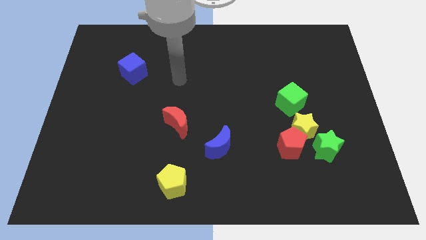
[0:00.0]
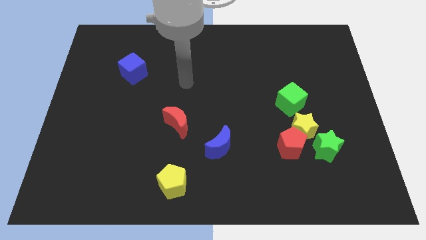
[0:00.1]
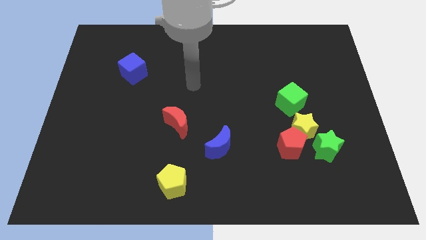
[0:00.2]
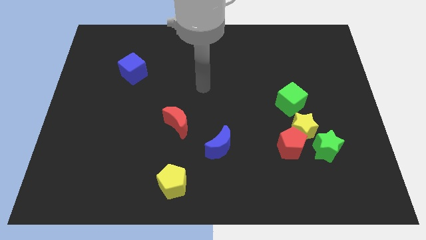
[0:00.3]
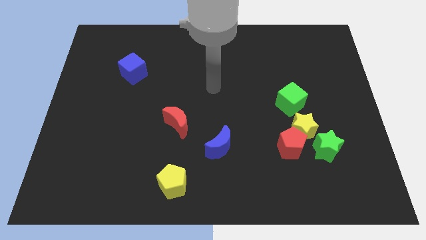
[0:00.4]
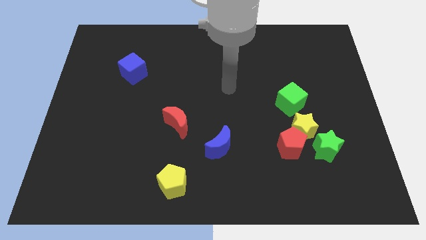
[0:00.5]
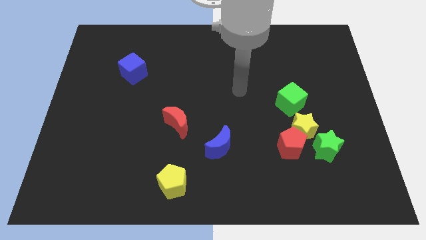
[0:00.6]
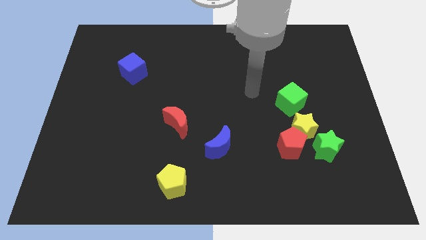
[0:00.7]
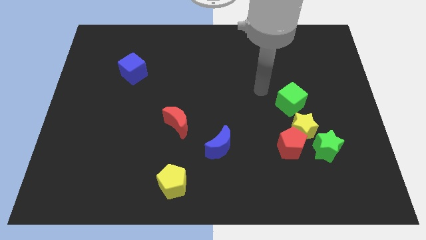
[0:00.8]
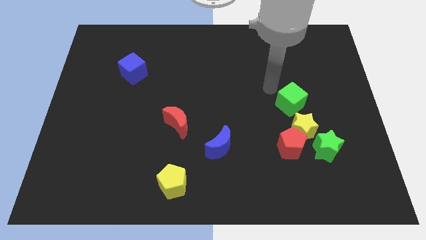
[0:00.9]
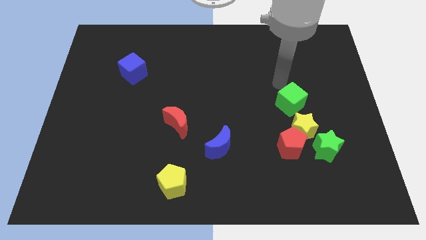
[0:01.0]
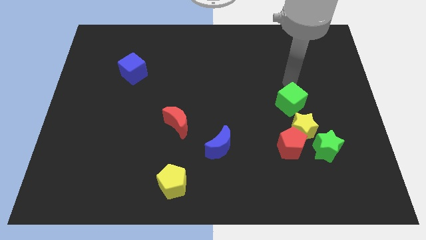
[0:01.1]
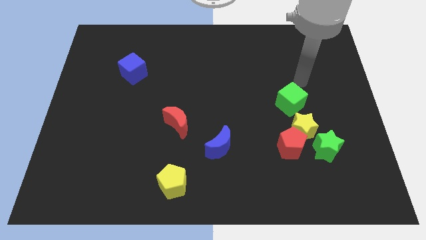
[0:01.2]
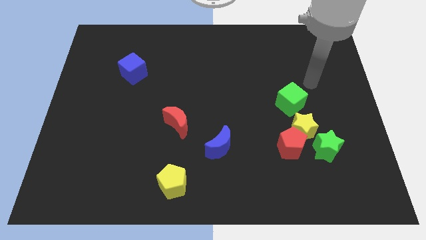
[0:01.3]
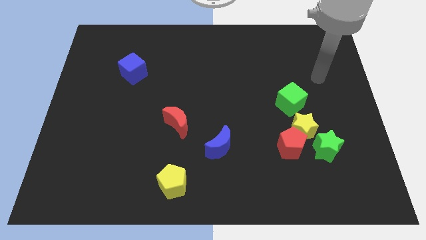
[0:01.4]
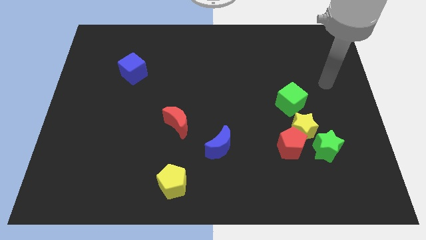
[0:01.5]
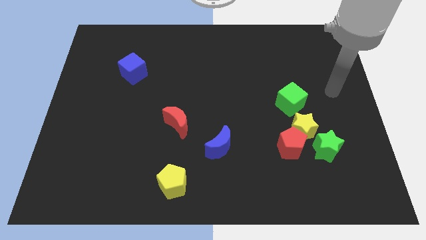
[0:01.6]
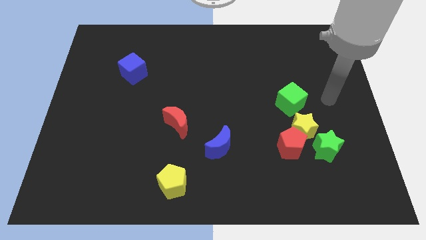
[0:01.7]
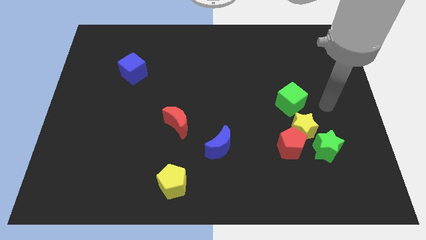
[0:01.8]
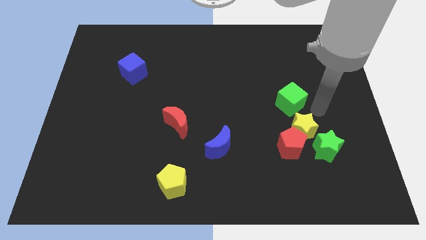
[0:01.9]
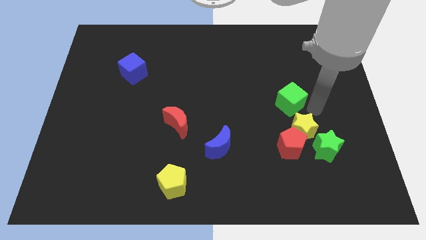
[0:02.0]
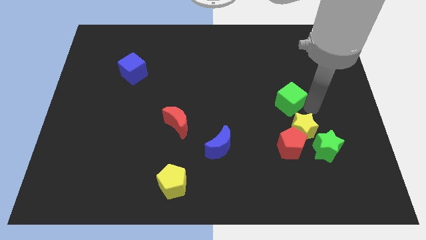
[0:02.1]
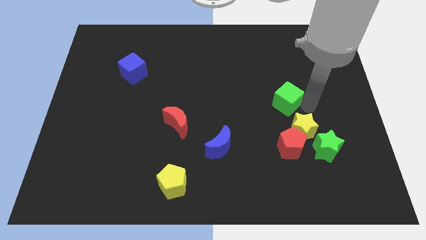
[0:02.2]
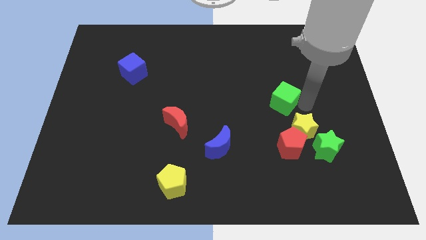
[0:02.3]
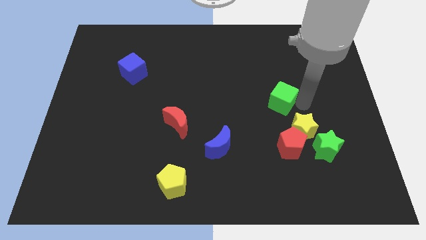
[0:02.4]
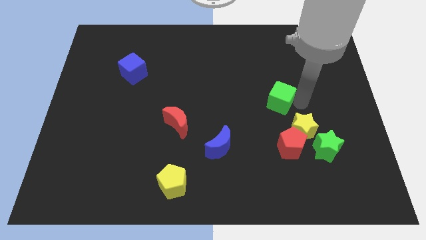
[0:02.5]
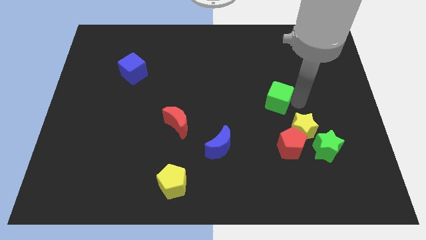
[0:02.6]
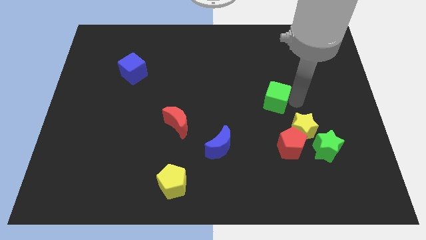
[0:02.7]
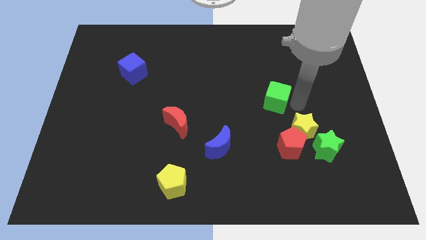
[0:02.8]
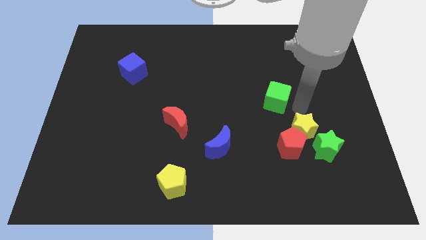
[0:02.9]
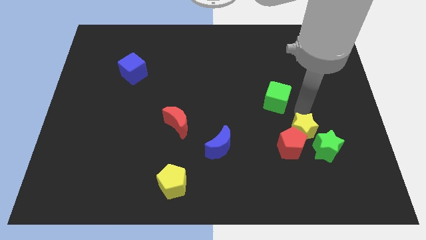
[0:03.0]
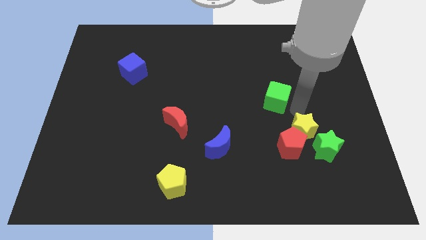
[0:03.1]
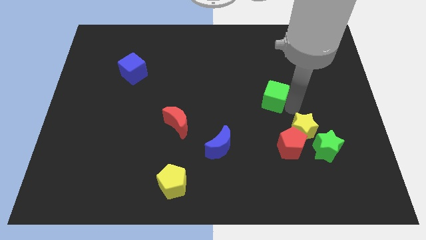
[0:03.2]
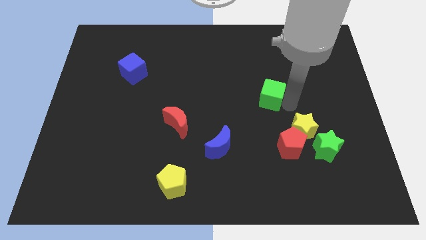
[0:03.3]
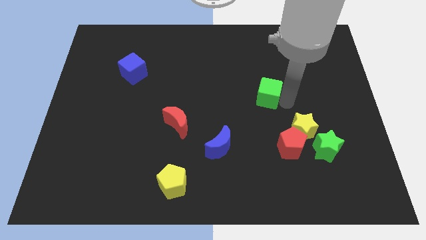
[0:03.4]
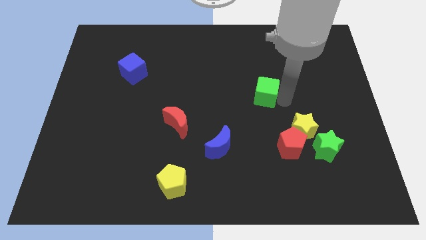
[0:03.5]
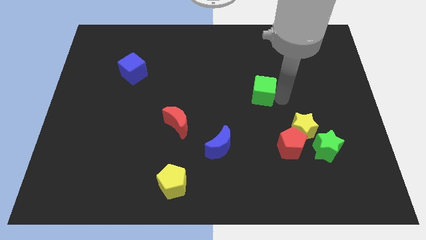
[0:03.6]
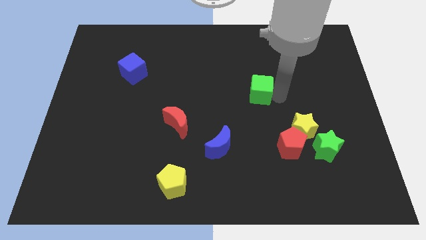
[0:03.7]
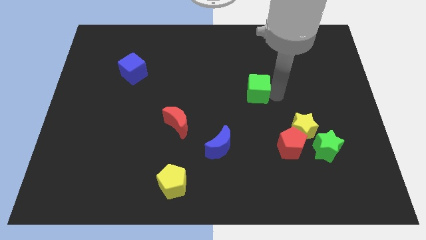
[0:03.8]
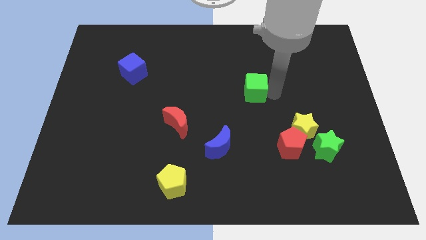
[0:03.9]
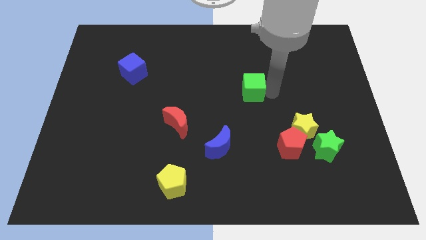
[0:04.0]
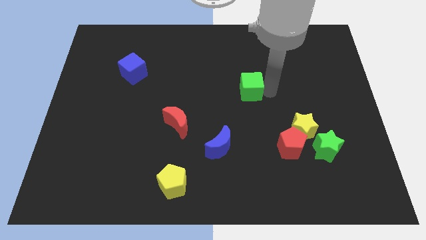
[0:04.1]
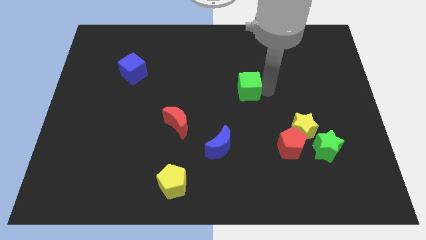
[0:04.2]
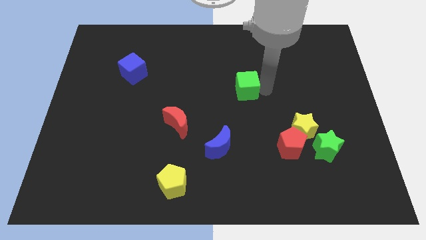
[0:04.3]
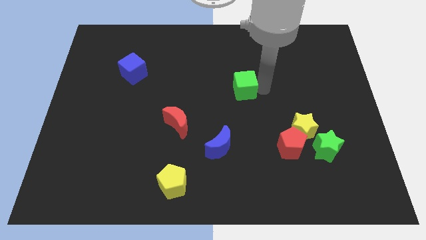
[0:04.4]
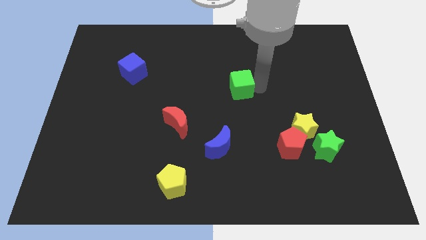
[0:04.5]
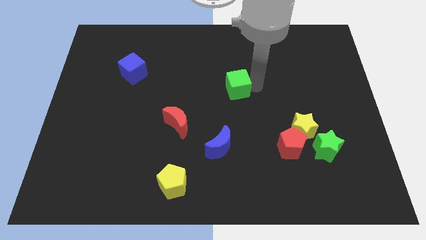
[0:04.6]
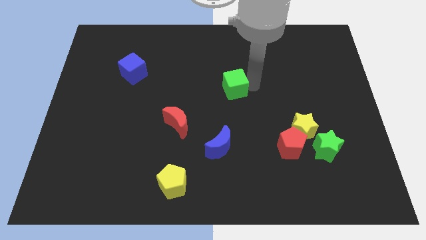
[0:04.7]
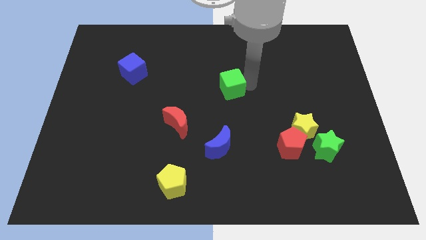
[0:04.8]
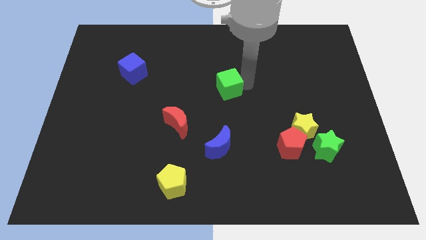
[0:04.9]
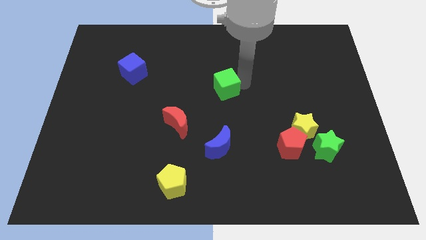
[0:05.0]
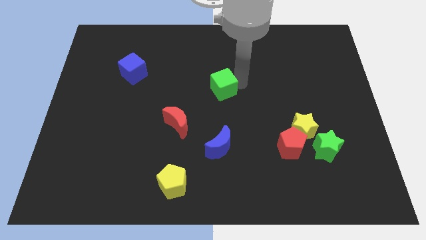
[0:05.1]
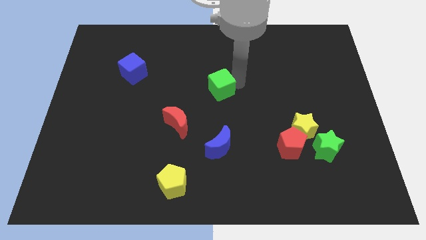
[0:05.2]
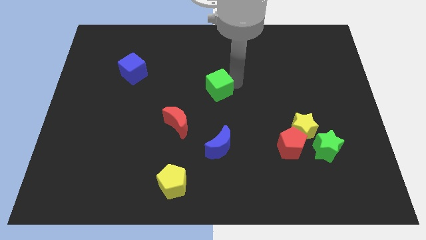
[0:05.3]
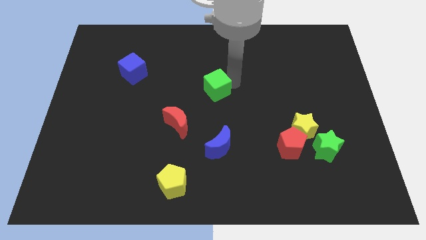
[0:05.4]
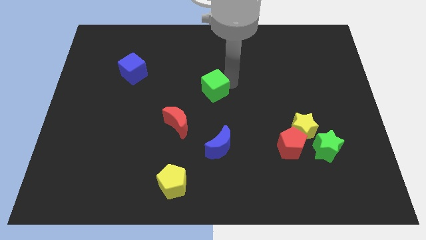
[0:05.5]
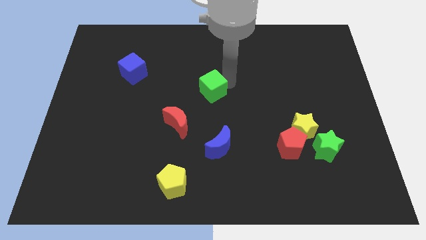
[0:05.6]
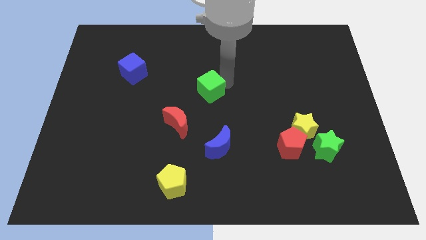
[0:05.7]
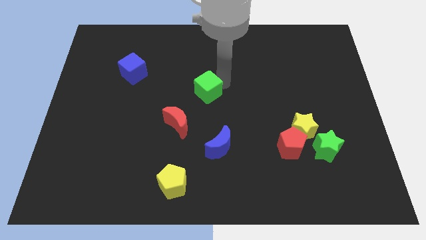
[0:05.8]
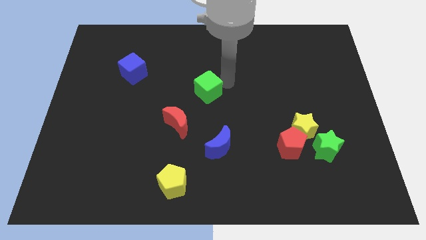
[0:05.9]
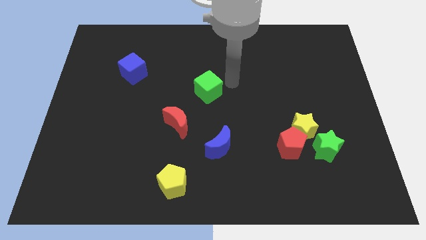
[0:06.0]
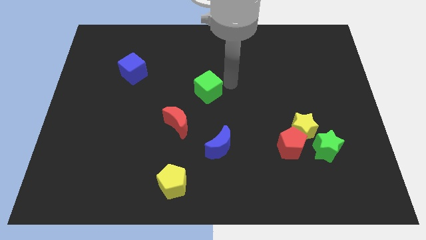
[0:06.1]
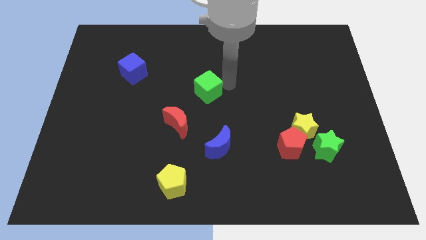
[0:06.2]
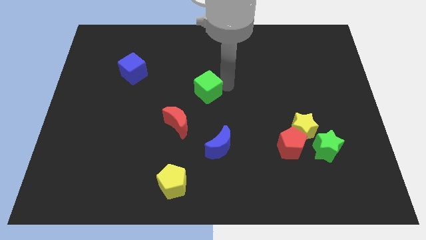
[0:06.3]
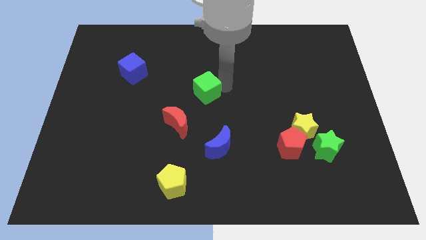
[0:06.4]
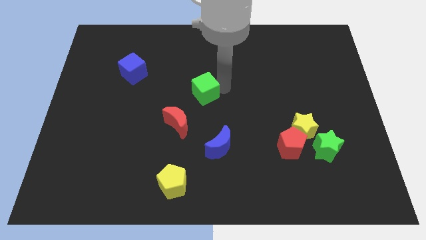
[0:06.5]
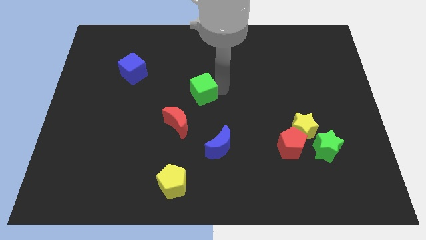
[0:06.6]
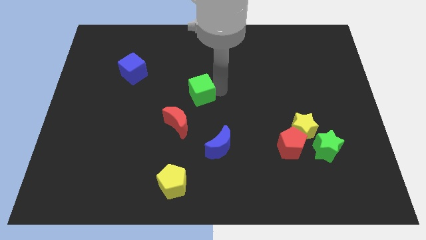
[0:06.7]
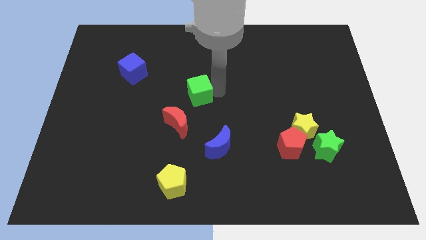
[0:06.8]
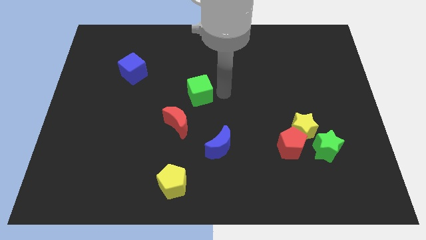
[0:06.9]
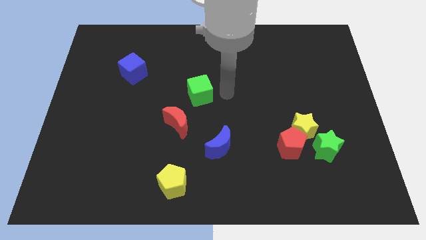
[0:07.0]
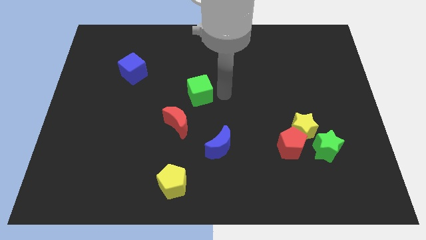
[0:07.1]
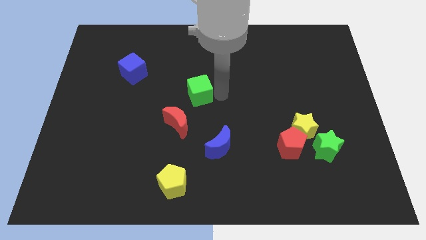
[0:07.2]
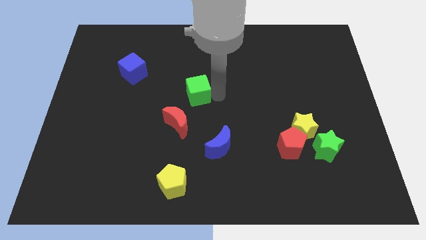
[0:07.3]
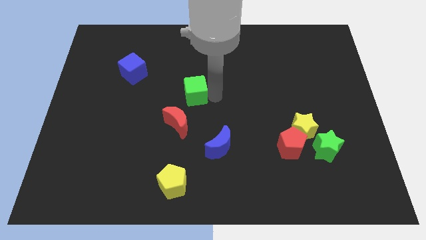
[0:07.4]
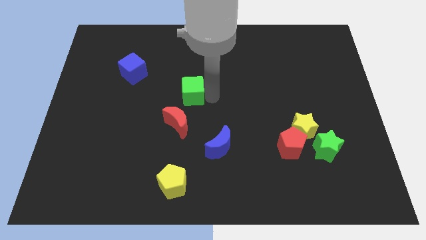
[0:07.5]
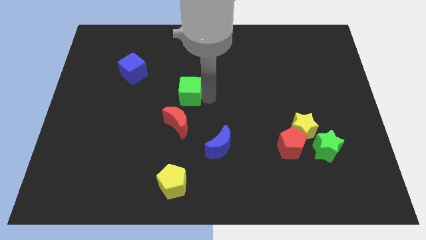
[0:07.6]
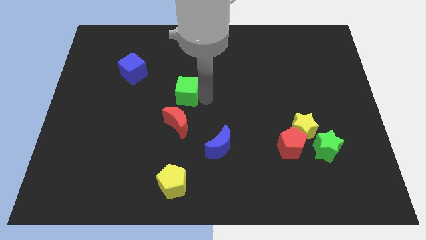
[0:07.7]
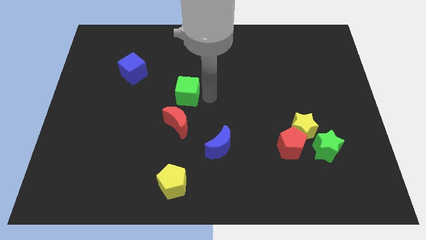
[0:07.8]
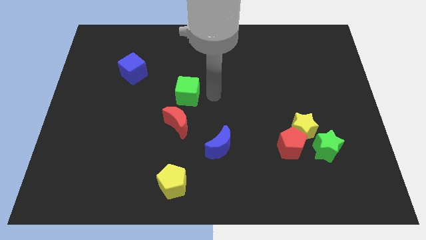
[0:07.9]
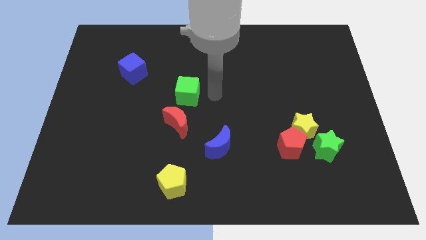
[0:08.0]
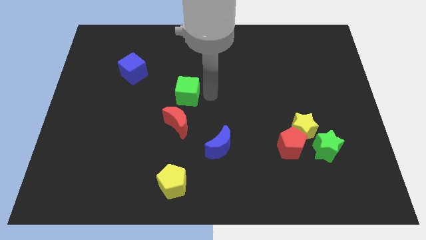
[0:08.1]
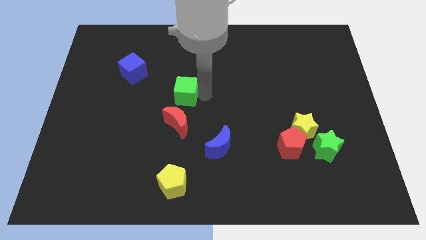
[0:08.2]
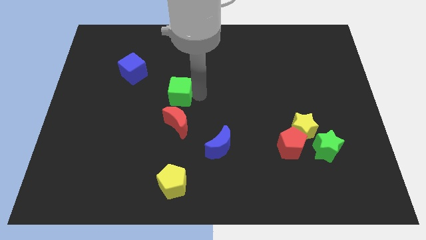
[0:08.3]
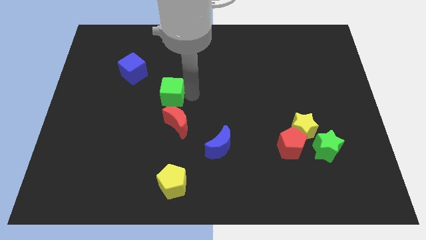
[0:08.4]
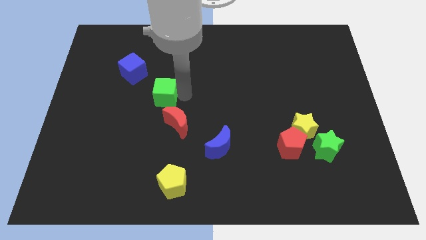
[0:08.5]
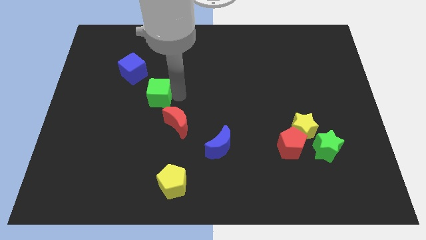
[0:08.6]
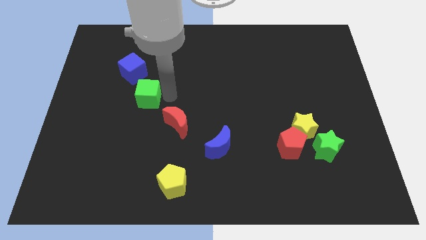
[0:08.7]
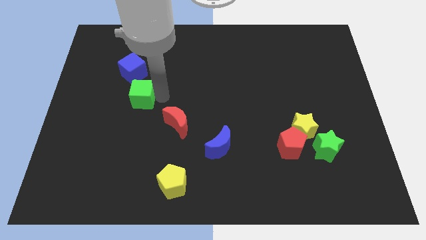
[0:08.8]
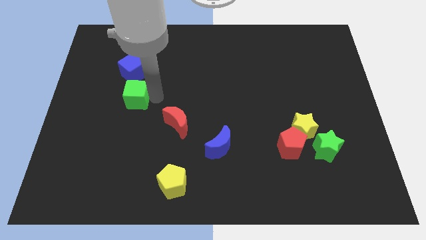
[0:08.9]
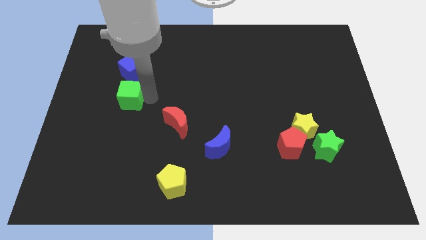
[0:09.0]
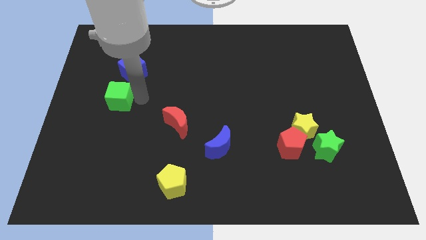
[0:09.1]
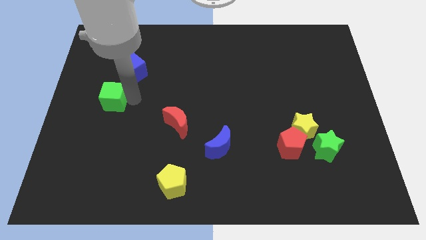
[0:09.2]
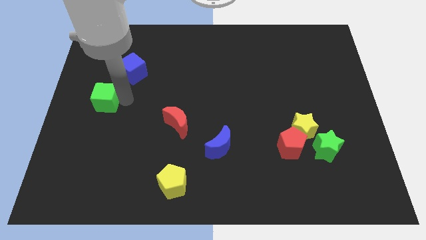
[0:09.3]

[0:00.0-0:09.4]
push the green cube to the center left
